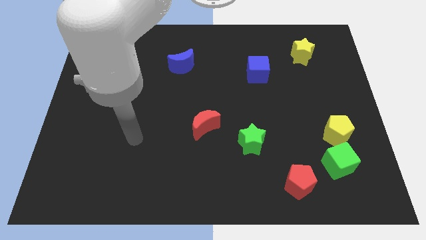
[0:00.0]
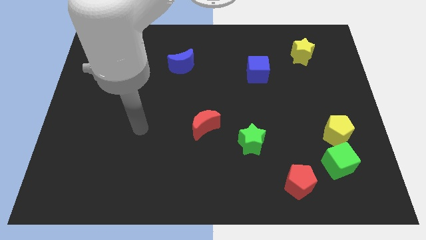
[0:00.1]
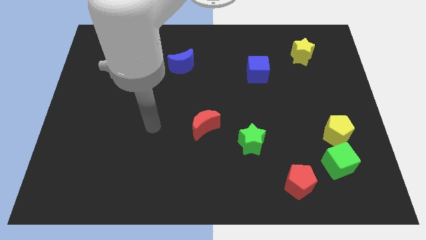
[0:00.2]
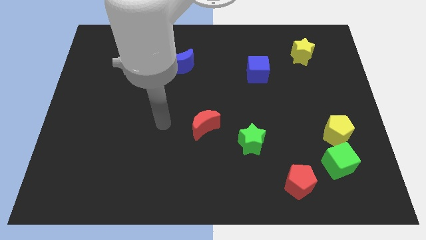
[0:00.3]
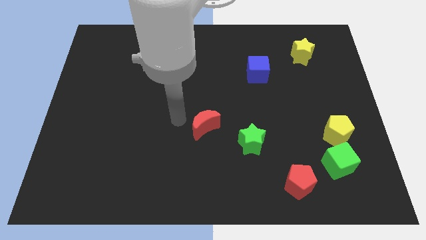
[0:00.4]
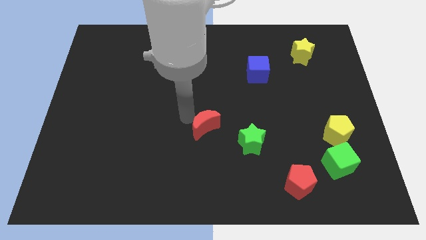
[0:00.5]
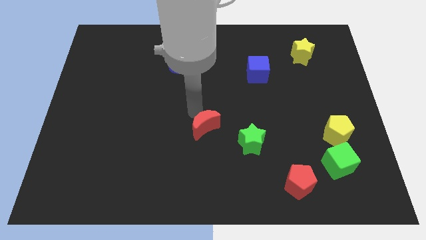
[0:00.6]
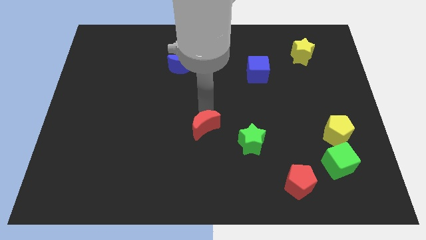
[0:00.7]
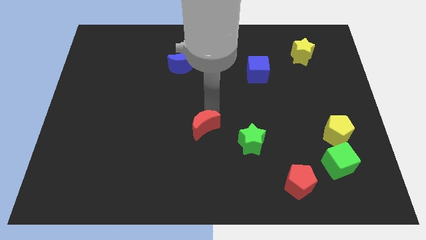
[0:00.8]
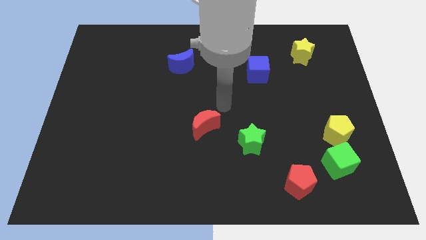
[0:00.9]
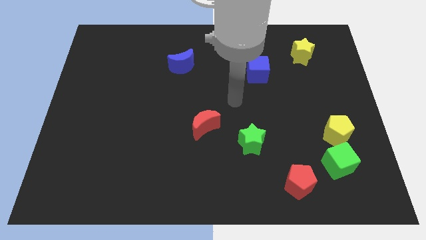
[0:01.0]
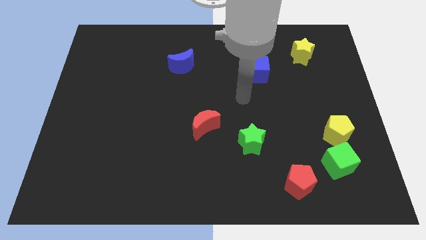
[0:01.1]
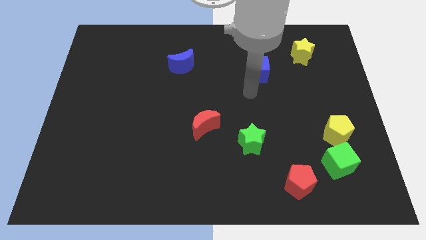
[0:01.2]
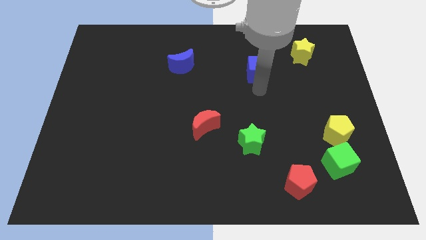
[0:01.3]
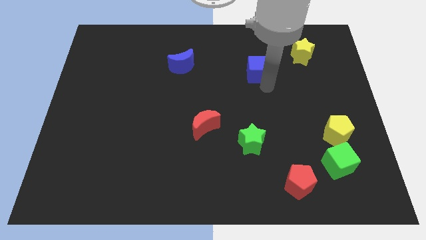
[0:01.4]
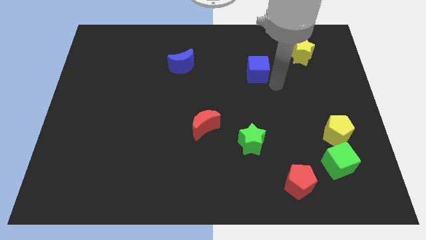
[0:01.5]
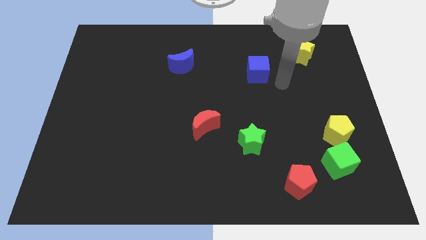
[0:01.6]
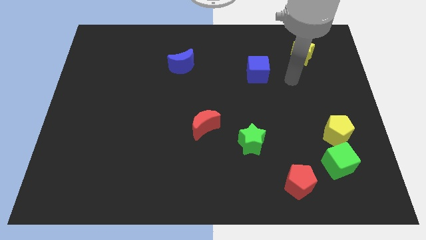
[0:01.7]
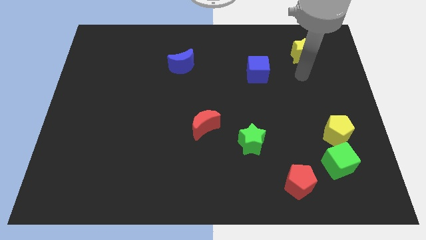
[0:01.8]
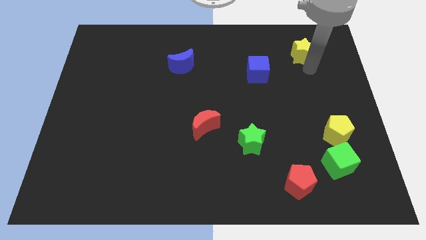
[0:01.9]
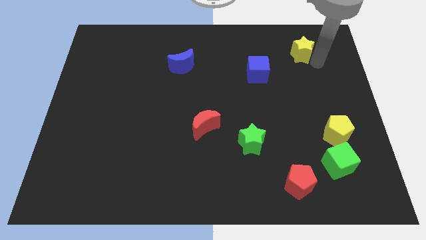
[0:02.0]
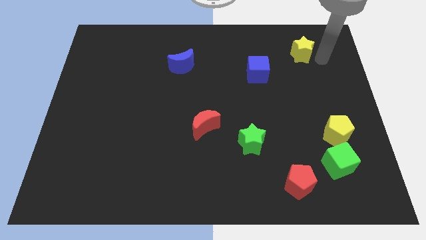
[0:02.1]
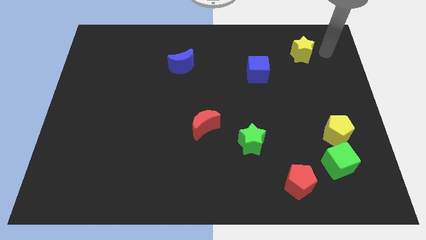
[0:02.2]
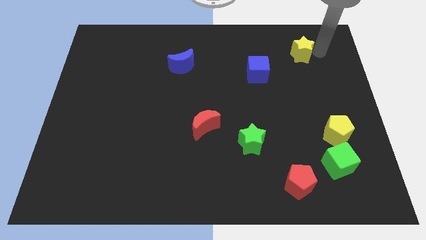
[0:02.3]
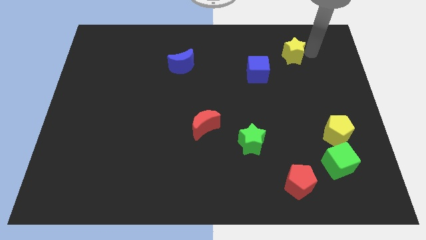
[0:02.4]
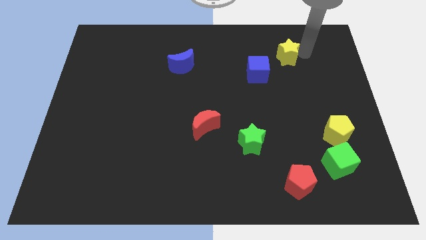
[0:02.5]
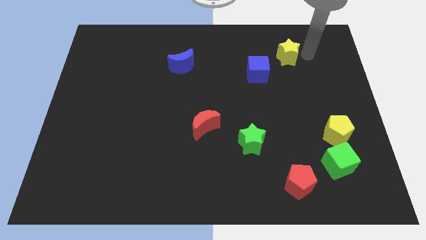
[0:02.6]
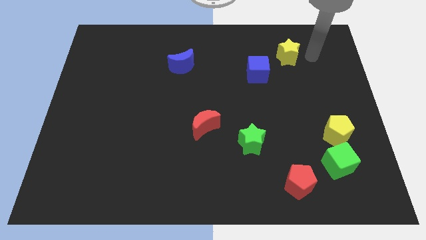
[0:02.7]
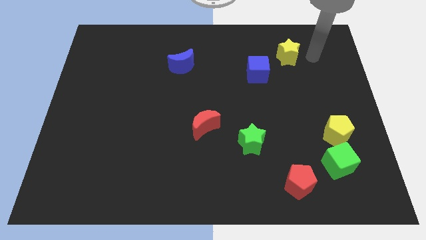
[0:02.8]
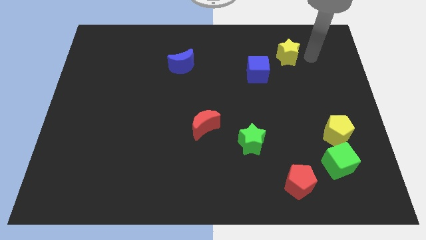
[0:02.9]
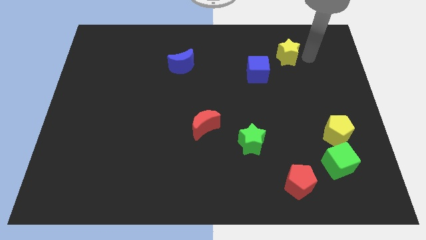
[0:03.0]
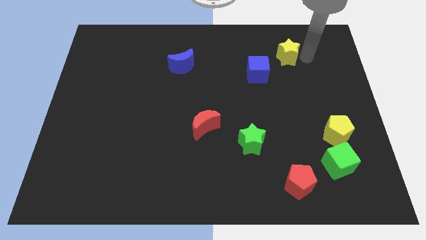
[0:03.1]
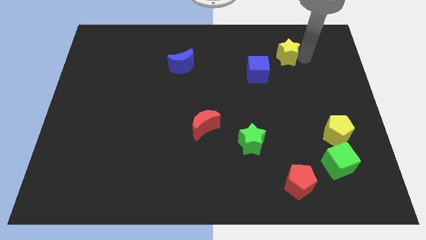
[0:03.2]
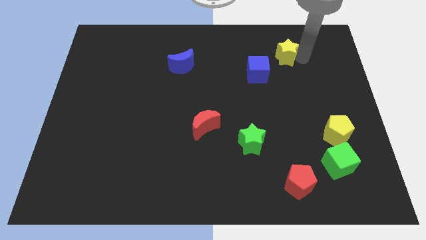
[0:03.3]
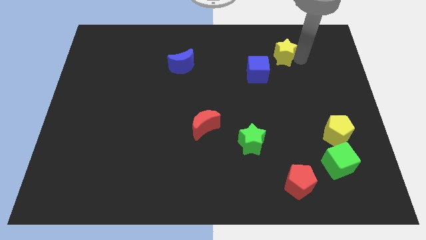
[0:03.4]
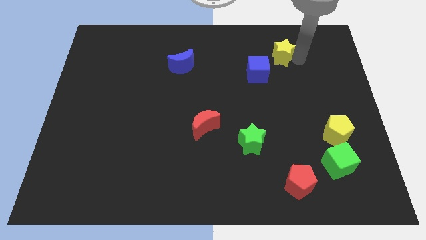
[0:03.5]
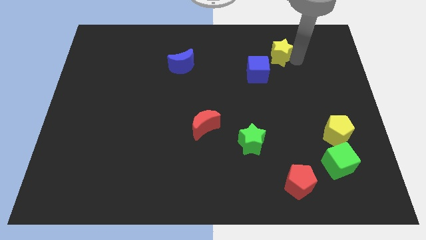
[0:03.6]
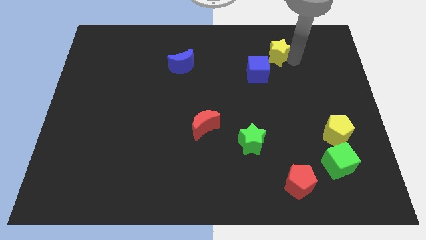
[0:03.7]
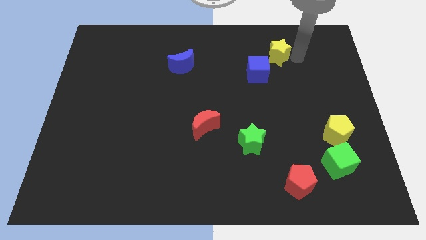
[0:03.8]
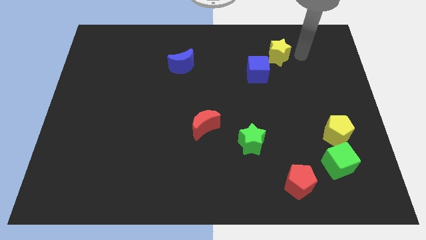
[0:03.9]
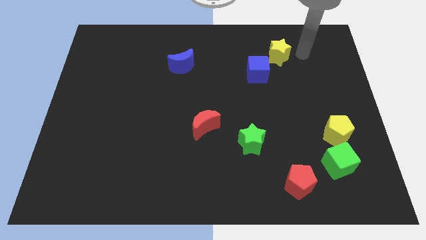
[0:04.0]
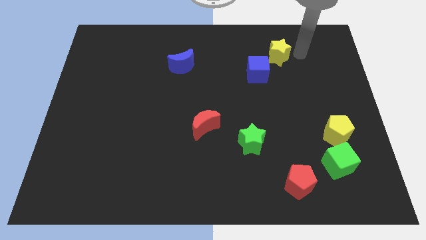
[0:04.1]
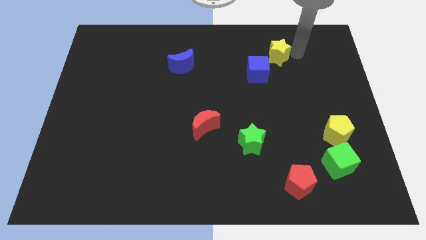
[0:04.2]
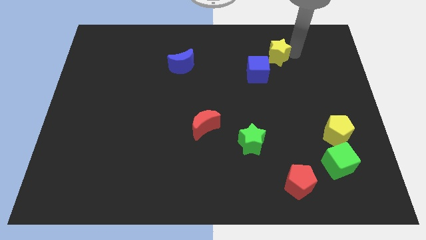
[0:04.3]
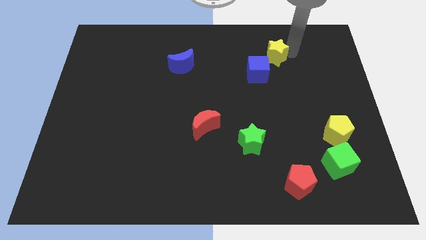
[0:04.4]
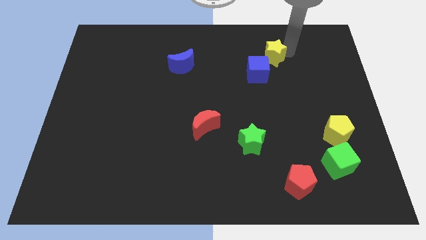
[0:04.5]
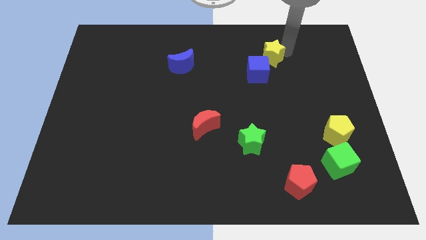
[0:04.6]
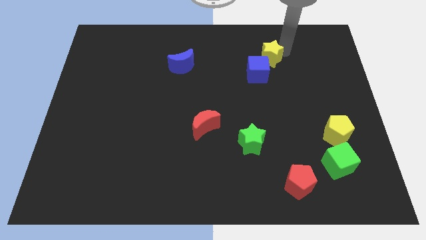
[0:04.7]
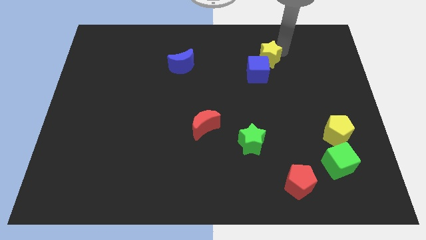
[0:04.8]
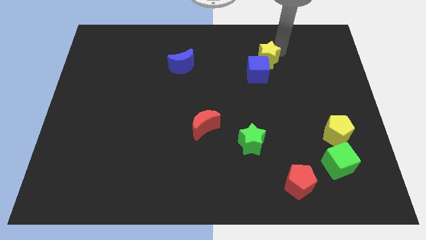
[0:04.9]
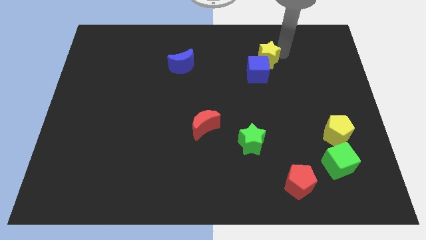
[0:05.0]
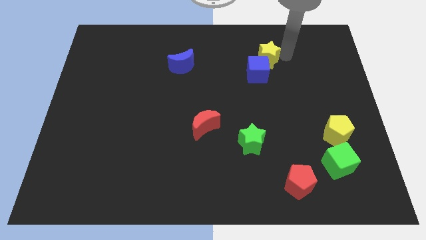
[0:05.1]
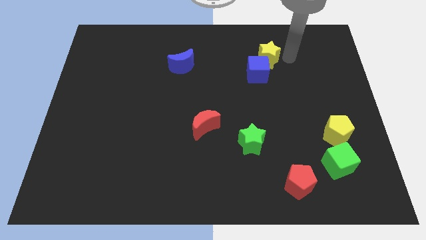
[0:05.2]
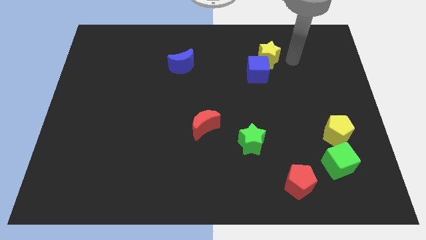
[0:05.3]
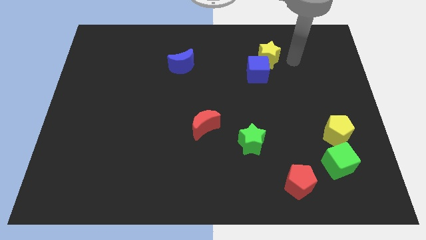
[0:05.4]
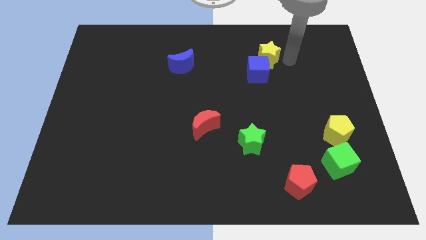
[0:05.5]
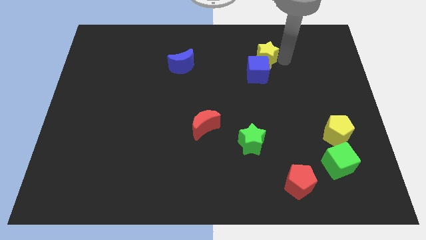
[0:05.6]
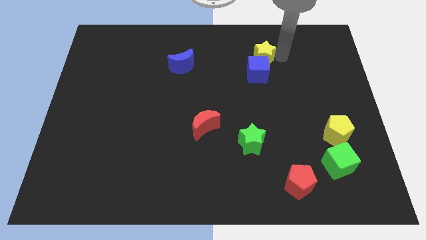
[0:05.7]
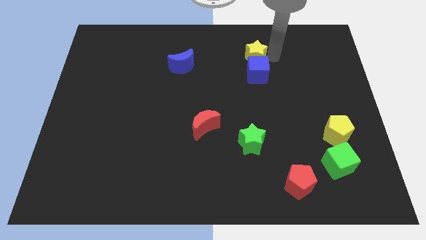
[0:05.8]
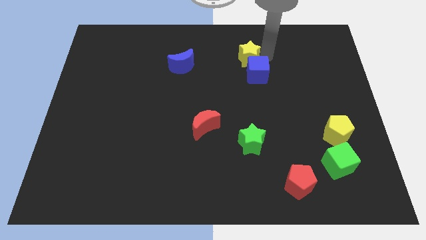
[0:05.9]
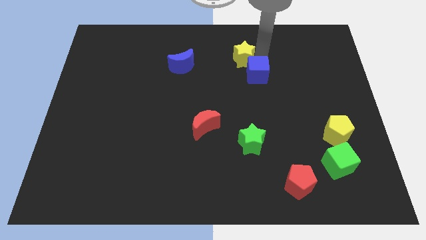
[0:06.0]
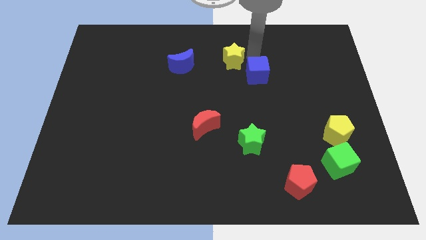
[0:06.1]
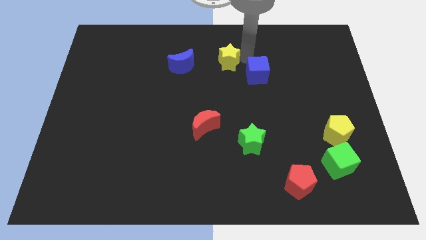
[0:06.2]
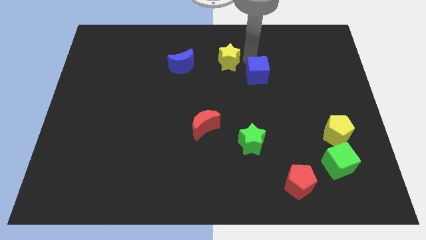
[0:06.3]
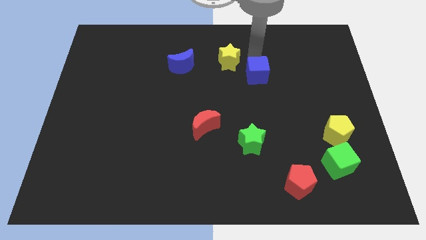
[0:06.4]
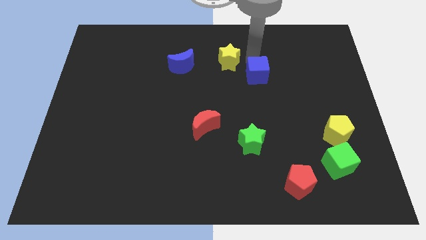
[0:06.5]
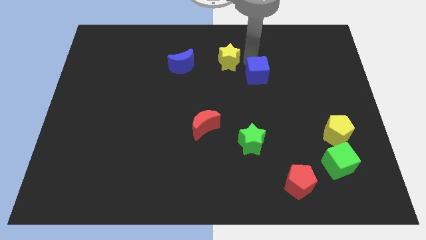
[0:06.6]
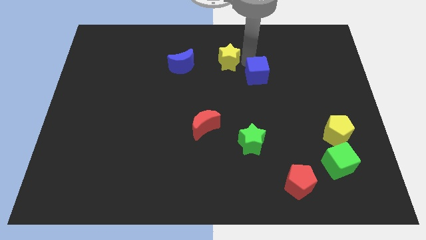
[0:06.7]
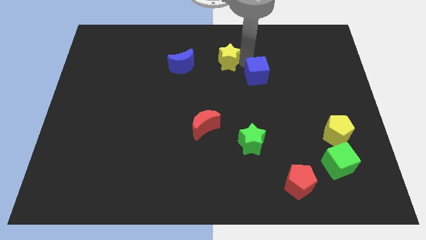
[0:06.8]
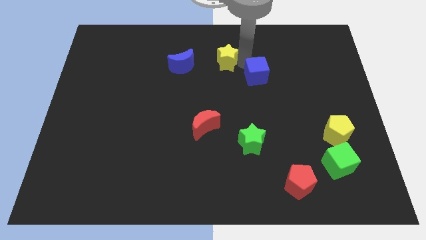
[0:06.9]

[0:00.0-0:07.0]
move the yellow star left

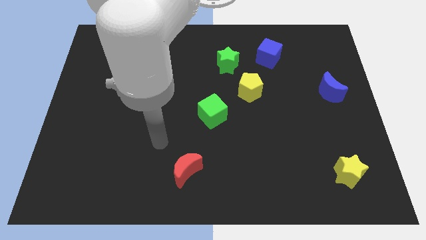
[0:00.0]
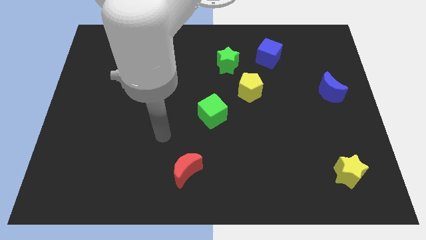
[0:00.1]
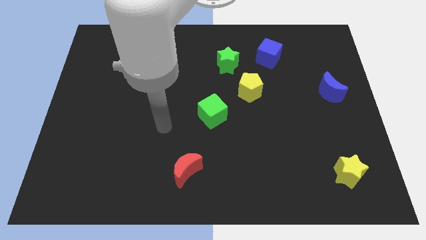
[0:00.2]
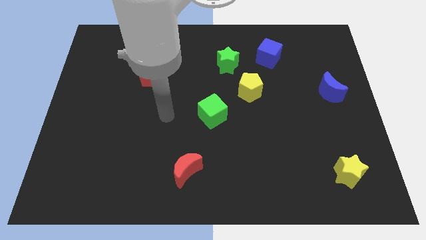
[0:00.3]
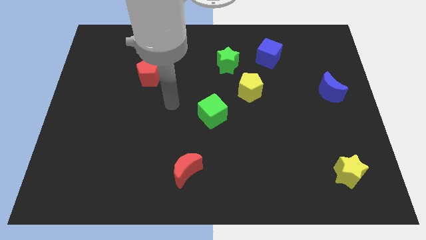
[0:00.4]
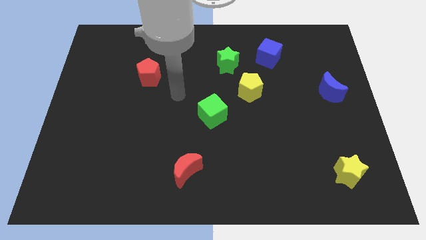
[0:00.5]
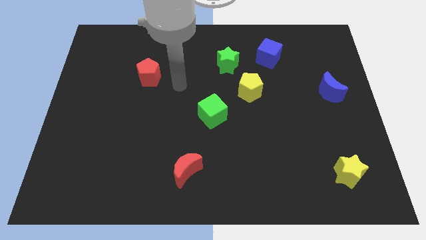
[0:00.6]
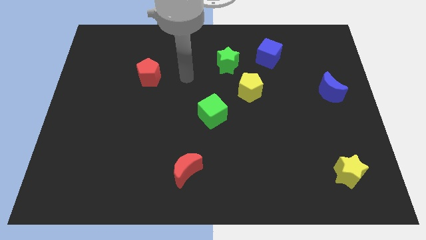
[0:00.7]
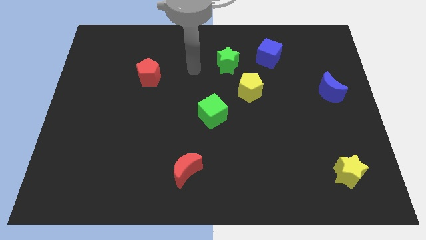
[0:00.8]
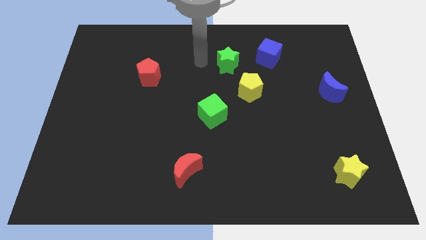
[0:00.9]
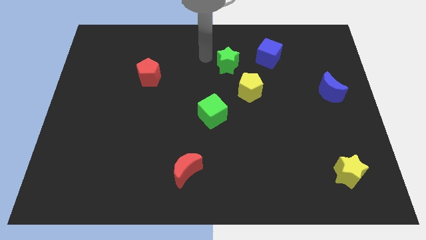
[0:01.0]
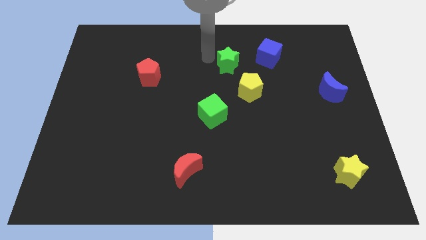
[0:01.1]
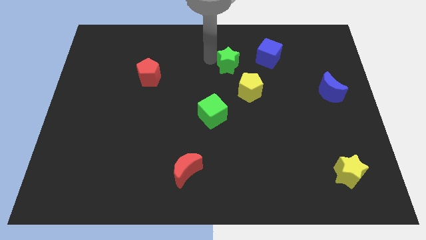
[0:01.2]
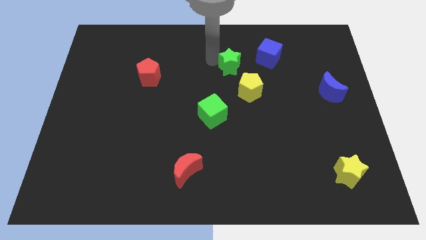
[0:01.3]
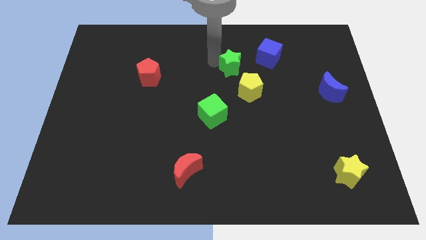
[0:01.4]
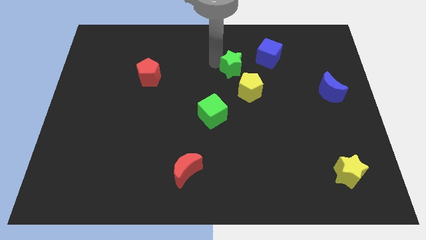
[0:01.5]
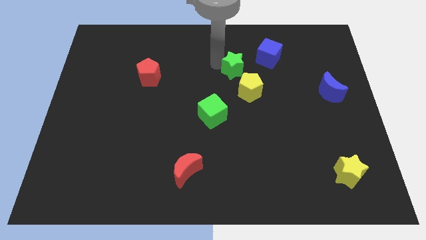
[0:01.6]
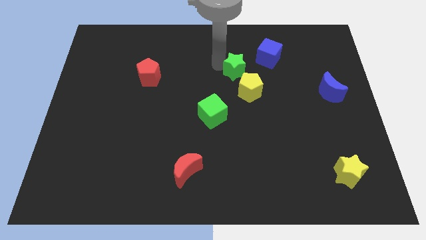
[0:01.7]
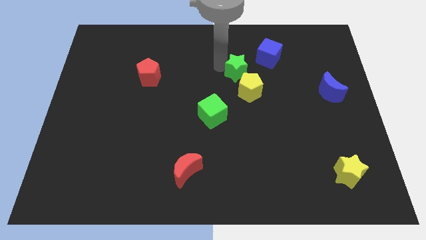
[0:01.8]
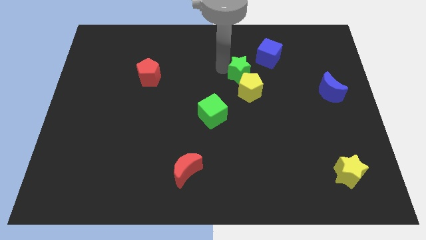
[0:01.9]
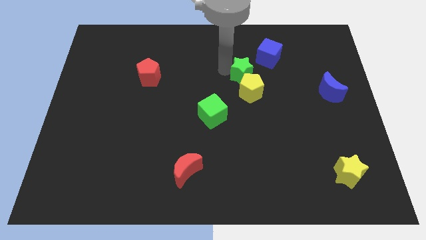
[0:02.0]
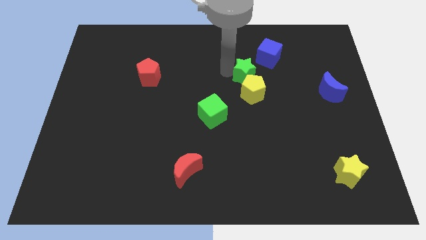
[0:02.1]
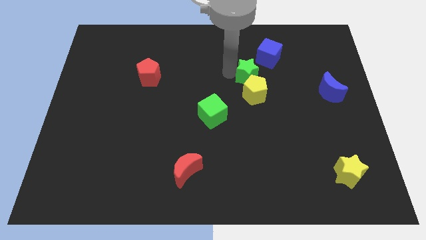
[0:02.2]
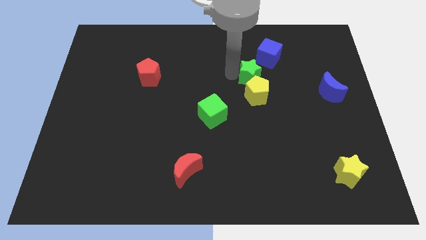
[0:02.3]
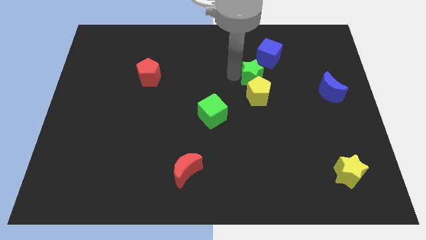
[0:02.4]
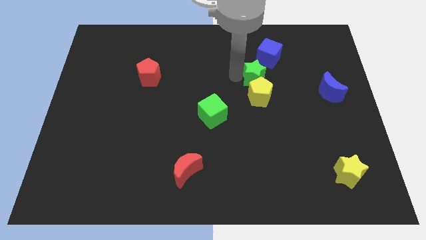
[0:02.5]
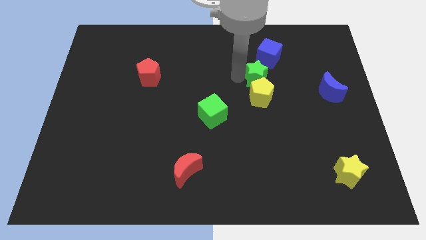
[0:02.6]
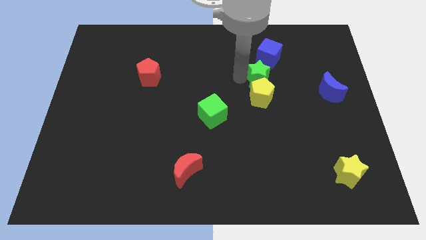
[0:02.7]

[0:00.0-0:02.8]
push the green star a bit to the right
